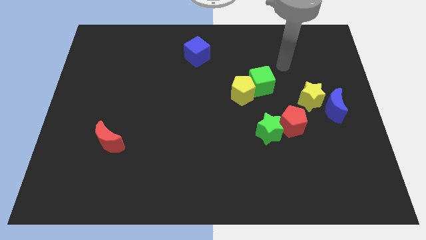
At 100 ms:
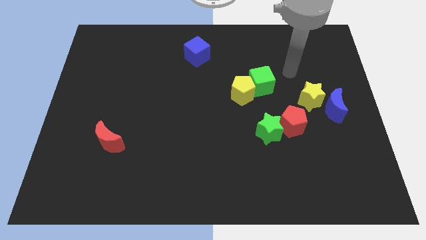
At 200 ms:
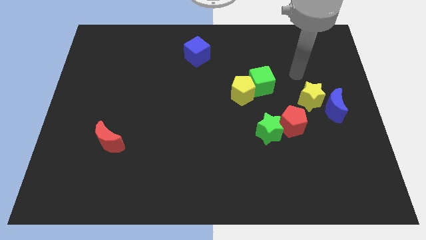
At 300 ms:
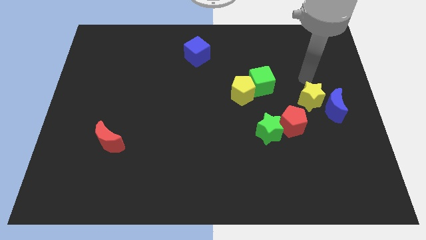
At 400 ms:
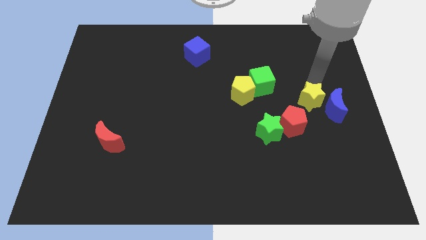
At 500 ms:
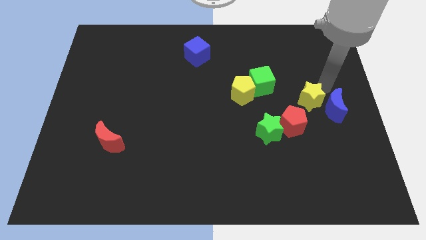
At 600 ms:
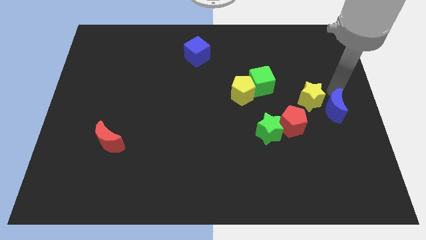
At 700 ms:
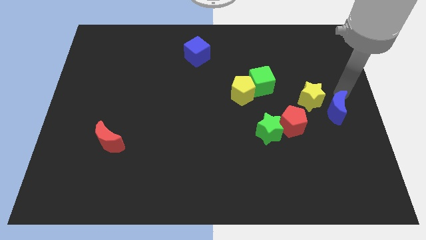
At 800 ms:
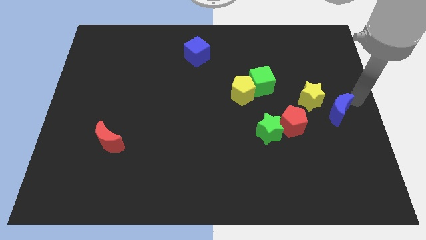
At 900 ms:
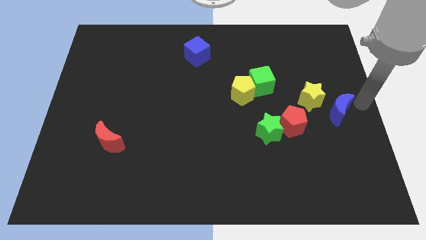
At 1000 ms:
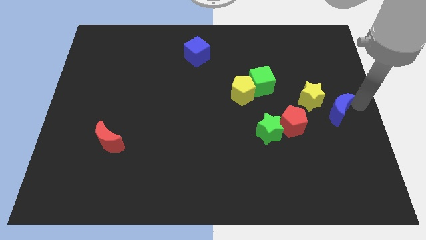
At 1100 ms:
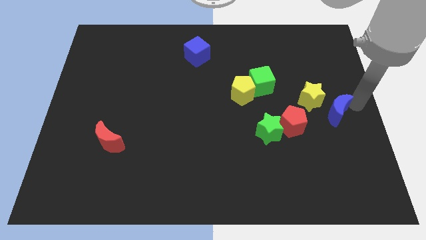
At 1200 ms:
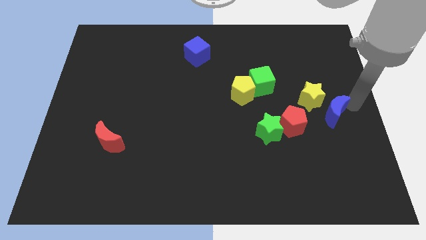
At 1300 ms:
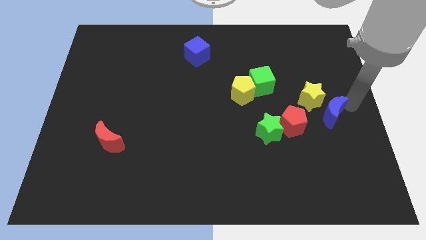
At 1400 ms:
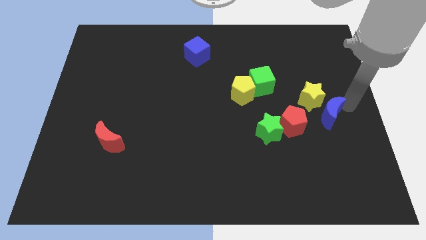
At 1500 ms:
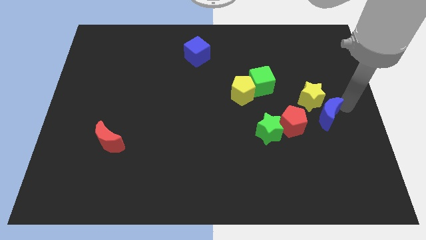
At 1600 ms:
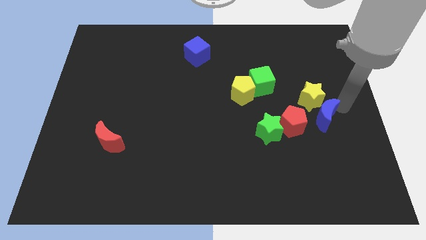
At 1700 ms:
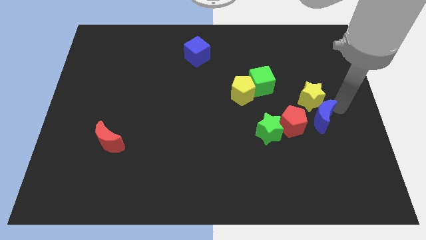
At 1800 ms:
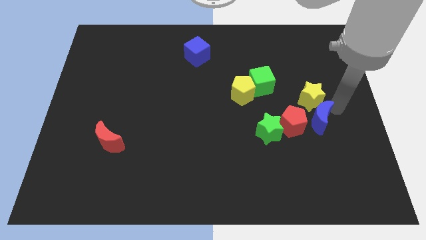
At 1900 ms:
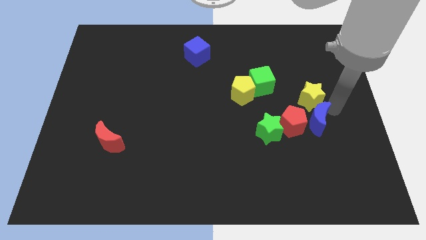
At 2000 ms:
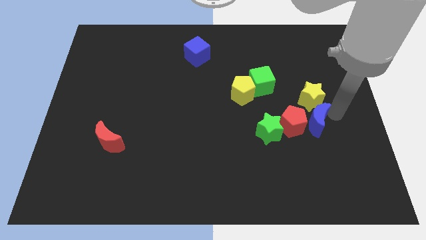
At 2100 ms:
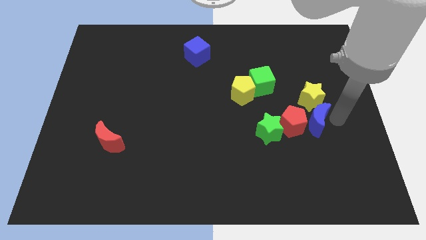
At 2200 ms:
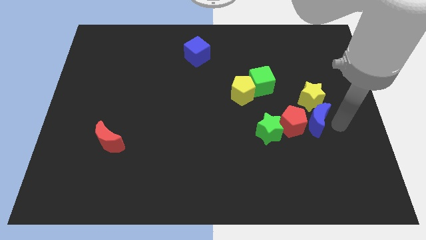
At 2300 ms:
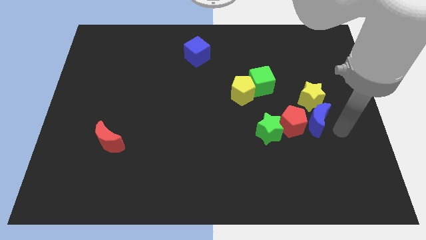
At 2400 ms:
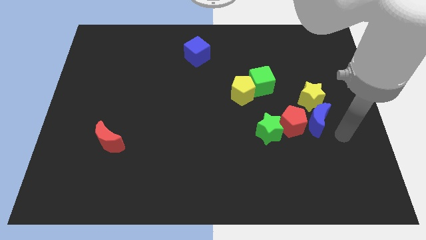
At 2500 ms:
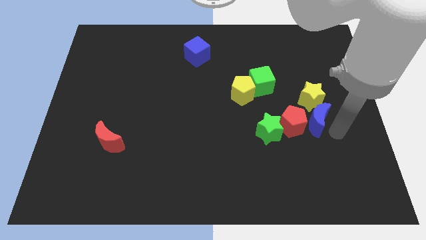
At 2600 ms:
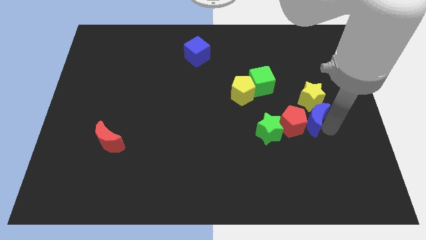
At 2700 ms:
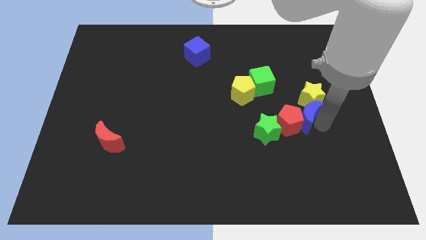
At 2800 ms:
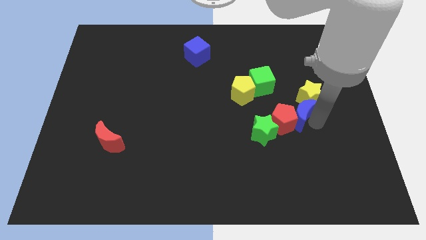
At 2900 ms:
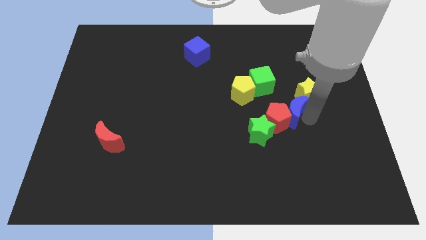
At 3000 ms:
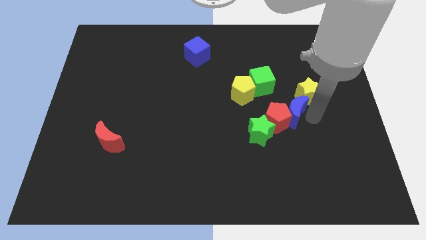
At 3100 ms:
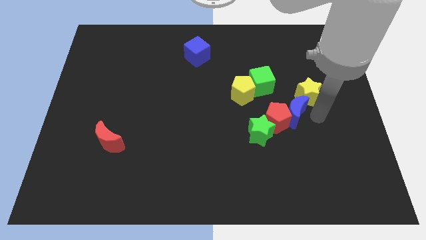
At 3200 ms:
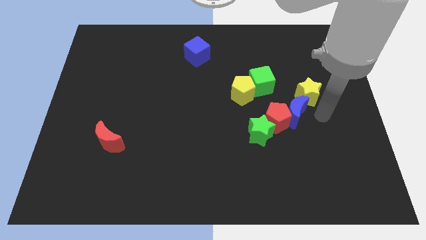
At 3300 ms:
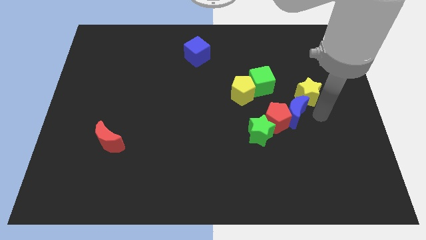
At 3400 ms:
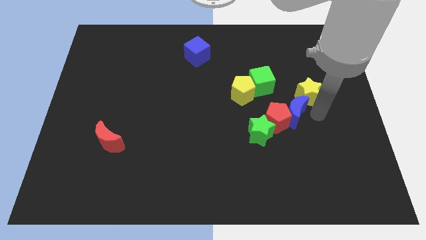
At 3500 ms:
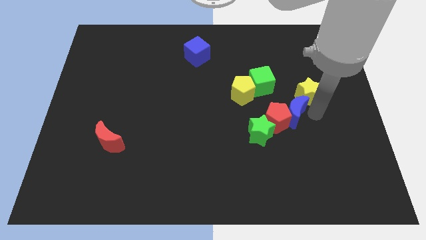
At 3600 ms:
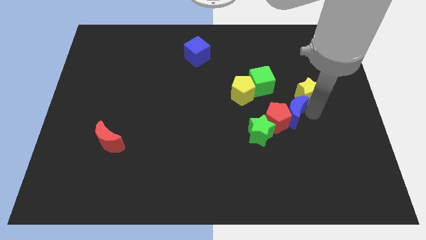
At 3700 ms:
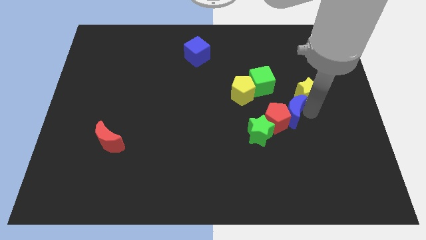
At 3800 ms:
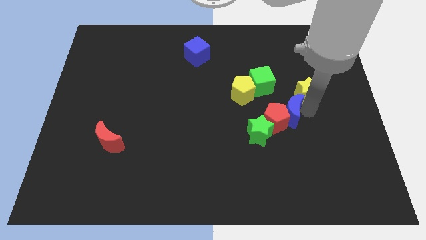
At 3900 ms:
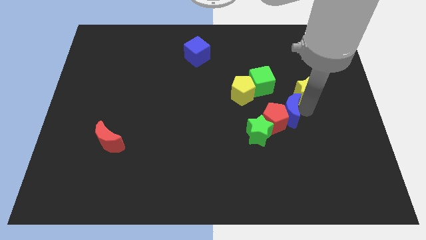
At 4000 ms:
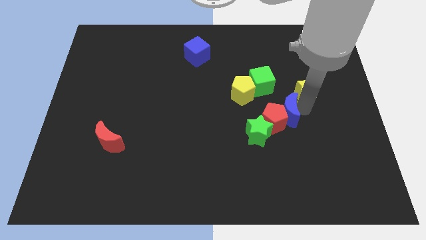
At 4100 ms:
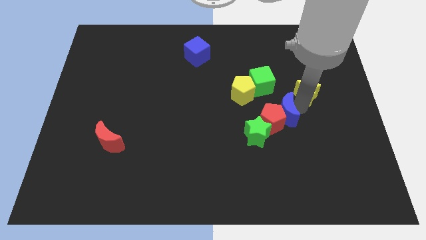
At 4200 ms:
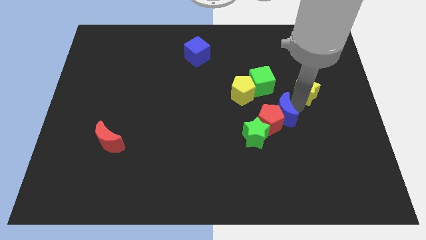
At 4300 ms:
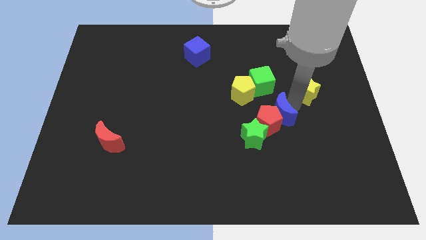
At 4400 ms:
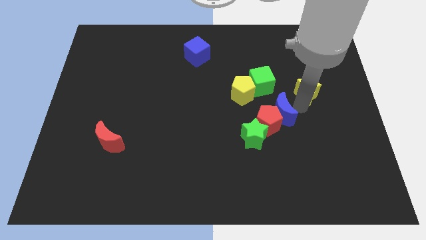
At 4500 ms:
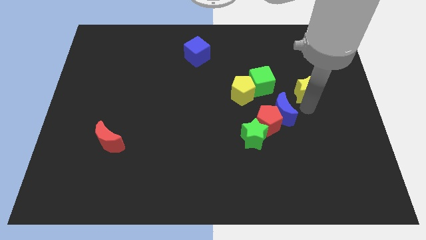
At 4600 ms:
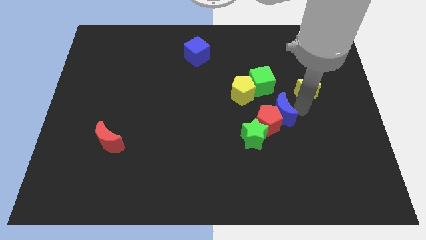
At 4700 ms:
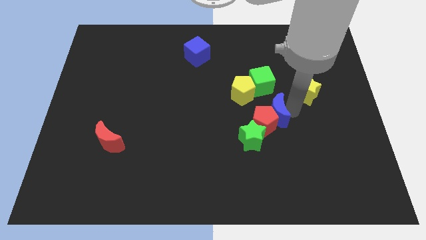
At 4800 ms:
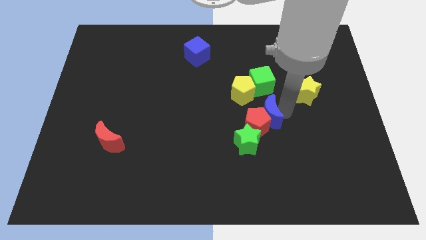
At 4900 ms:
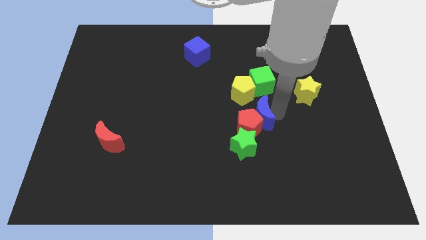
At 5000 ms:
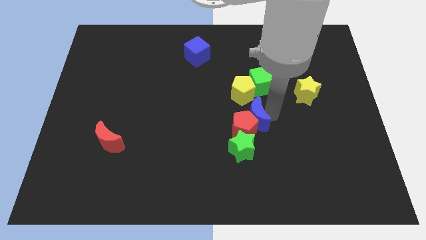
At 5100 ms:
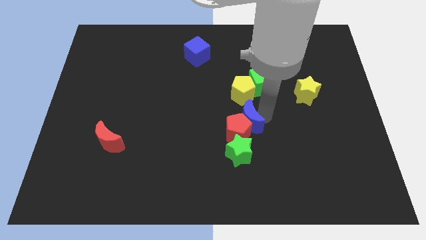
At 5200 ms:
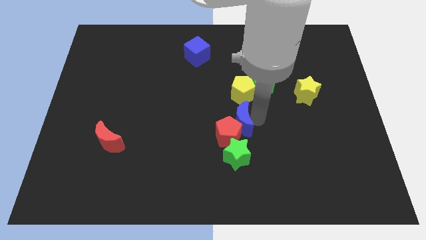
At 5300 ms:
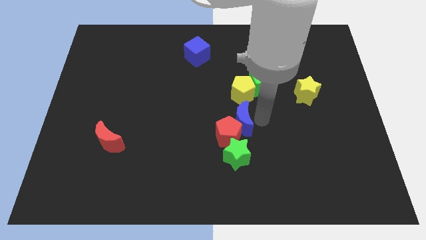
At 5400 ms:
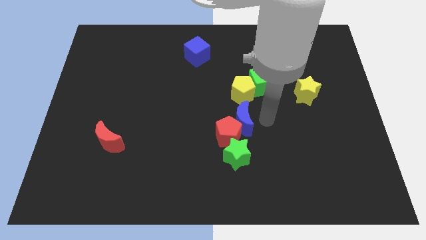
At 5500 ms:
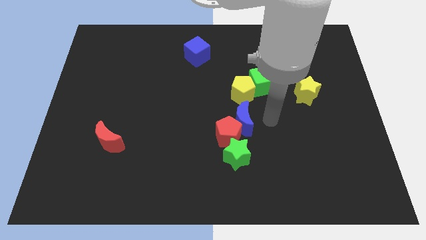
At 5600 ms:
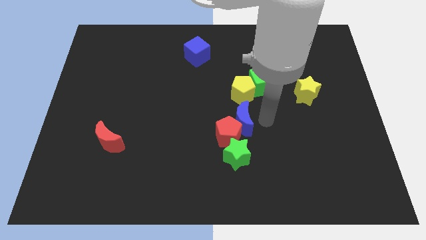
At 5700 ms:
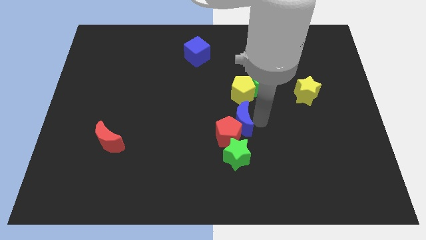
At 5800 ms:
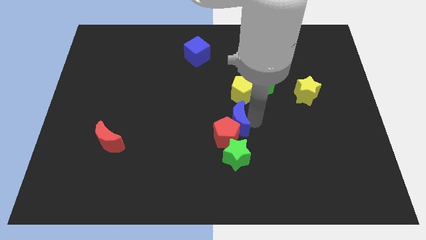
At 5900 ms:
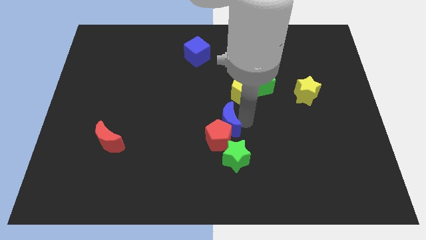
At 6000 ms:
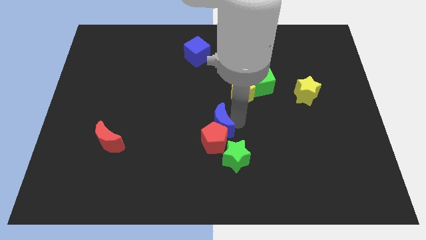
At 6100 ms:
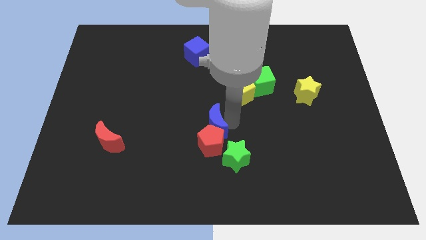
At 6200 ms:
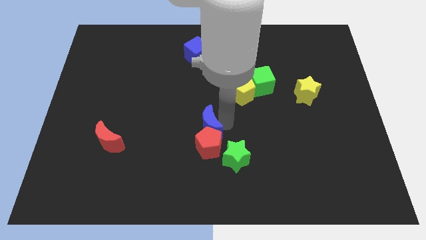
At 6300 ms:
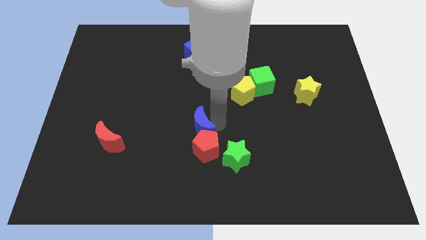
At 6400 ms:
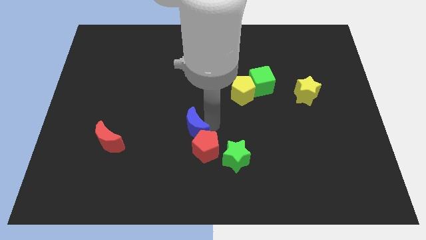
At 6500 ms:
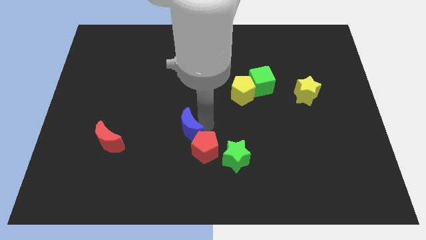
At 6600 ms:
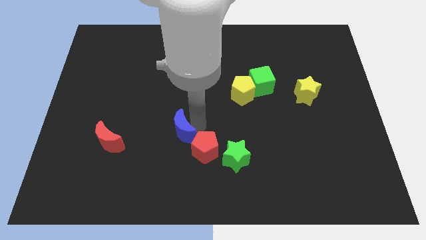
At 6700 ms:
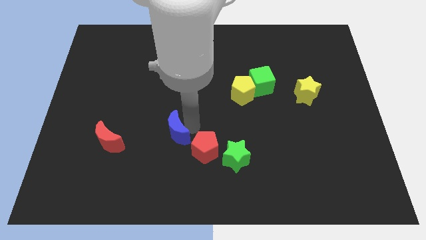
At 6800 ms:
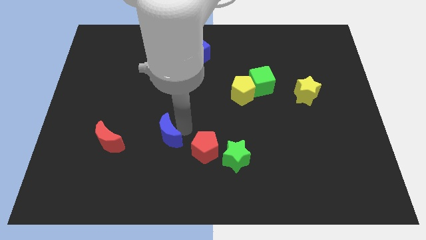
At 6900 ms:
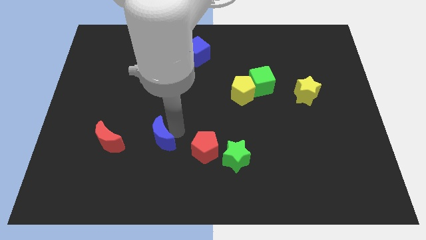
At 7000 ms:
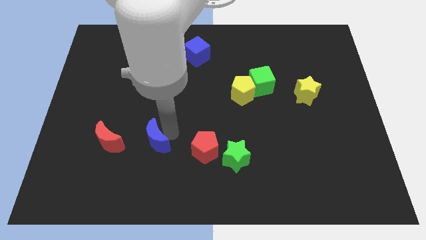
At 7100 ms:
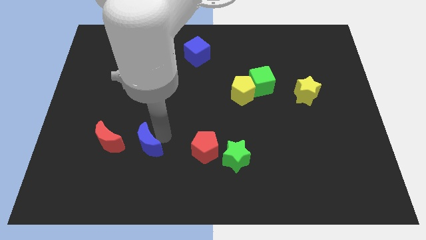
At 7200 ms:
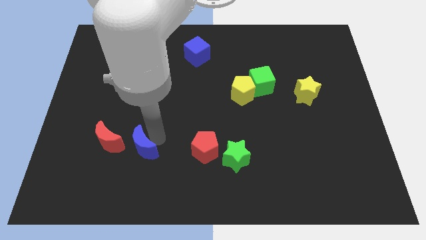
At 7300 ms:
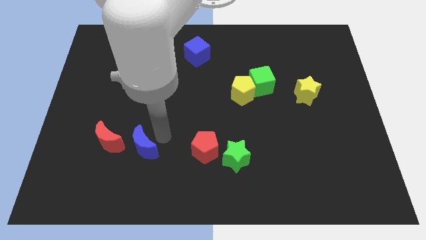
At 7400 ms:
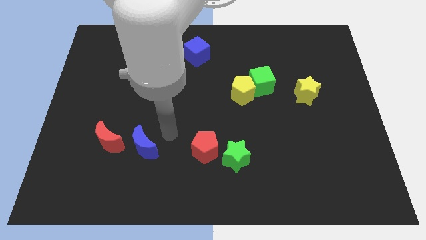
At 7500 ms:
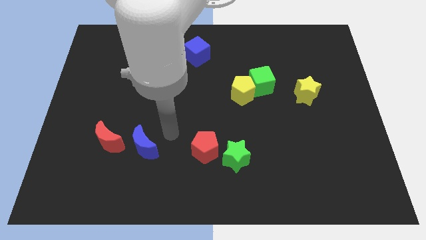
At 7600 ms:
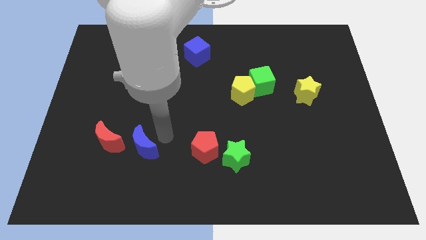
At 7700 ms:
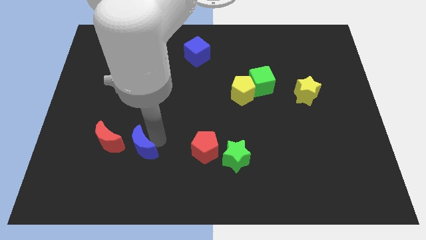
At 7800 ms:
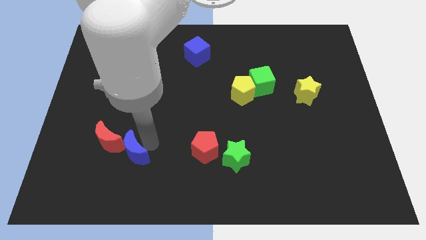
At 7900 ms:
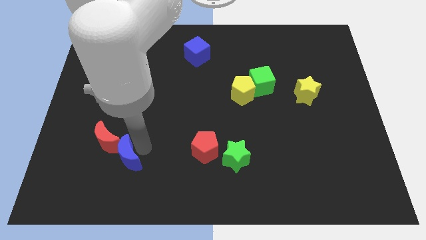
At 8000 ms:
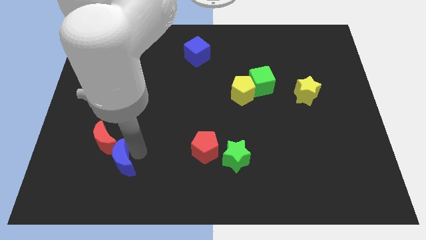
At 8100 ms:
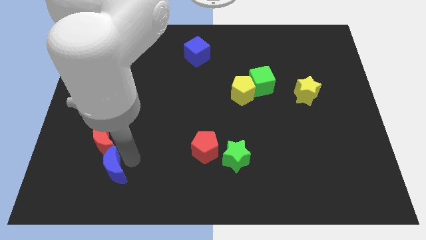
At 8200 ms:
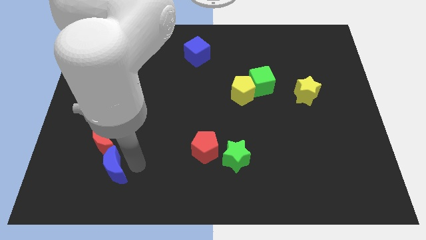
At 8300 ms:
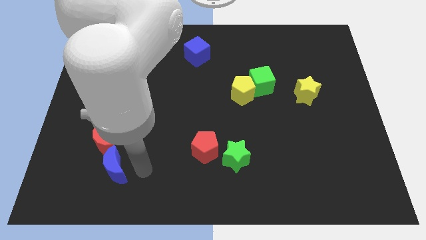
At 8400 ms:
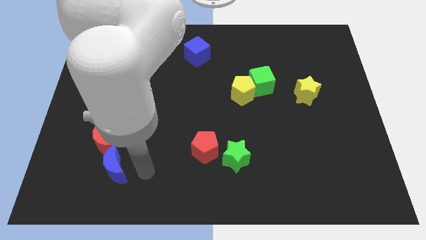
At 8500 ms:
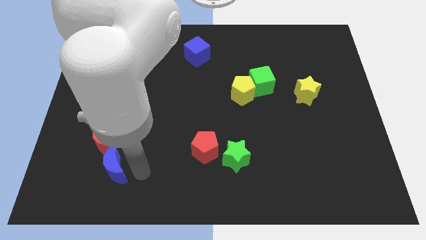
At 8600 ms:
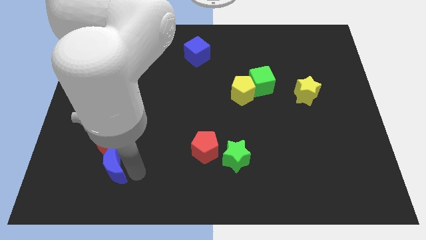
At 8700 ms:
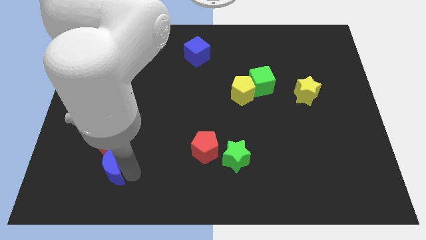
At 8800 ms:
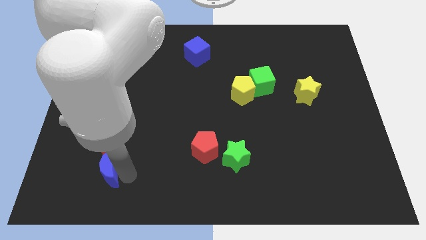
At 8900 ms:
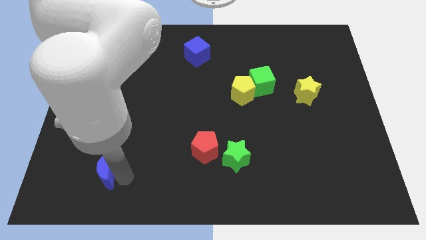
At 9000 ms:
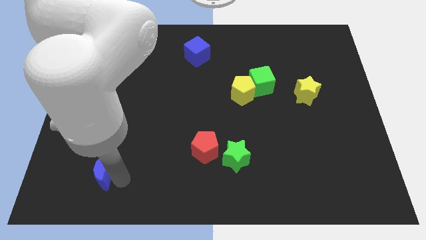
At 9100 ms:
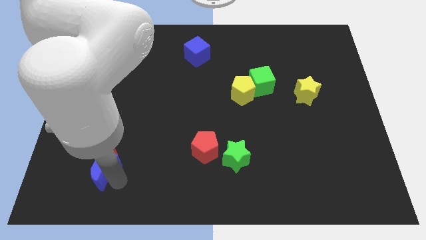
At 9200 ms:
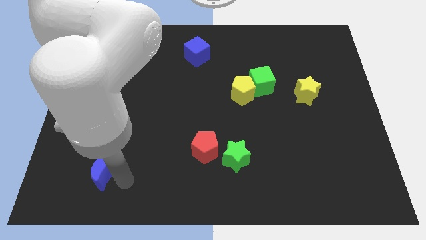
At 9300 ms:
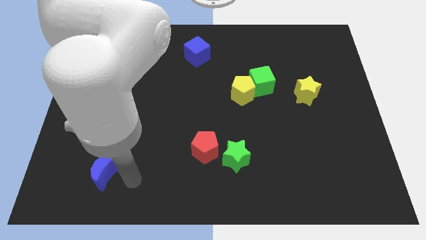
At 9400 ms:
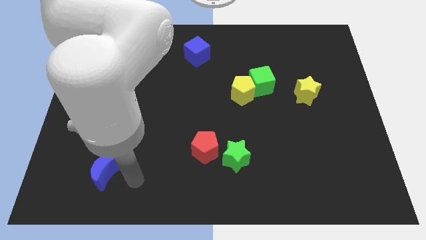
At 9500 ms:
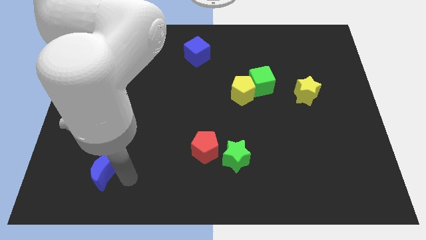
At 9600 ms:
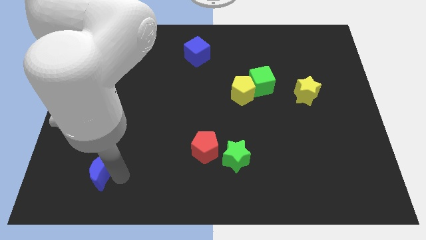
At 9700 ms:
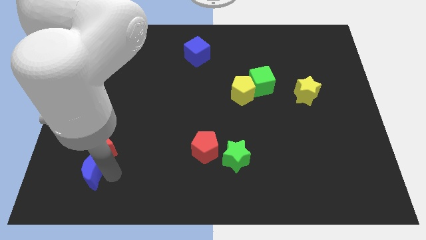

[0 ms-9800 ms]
move the blue moon to the bottom left of the red moon
